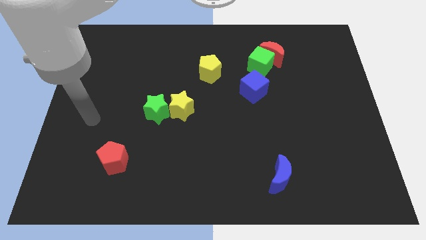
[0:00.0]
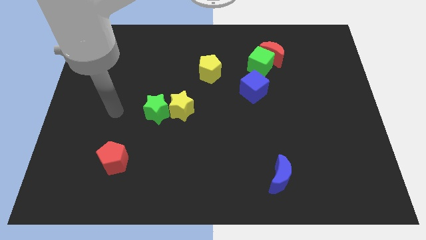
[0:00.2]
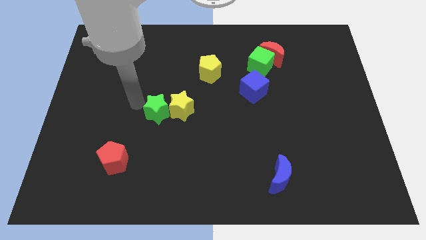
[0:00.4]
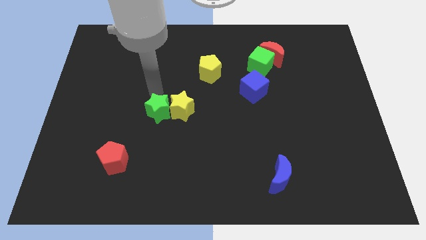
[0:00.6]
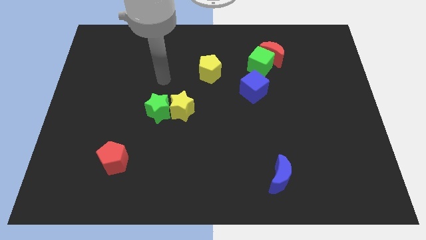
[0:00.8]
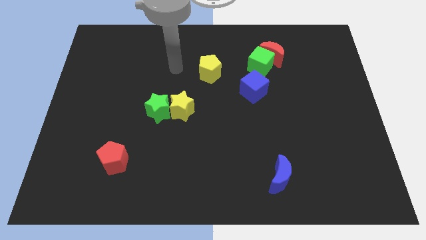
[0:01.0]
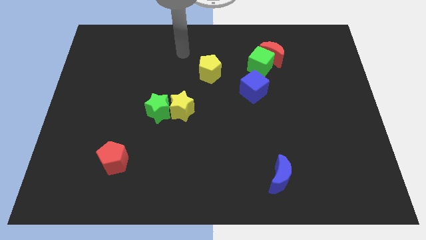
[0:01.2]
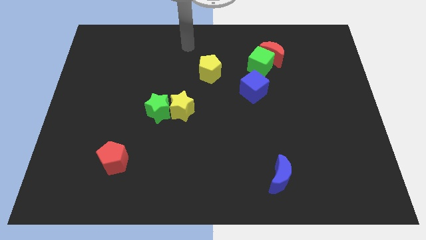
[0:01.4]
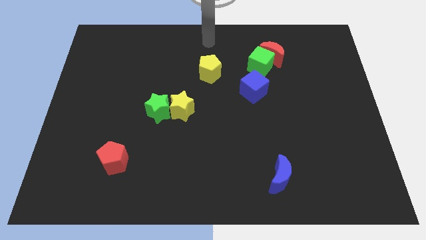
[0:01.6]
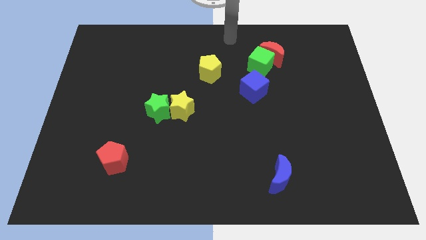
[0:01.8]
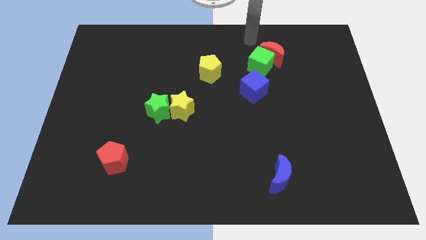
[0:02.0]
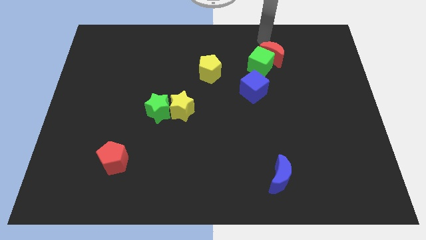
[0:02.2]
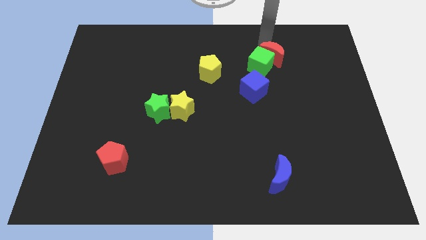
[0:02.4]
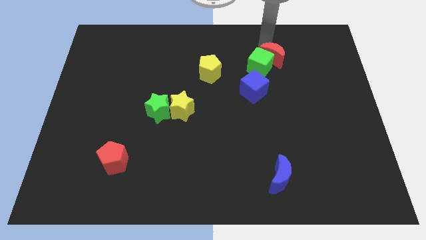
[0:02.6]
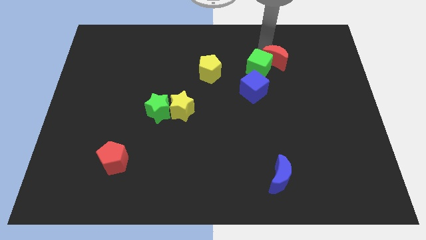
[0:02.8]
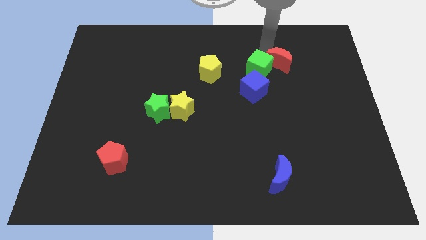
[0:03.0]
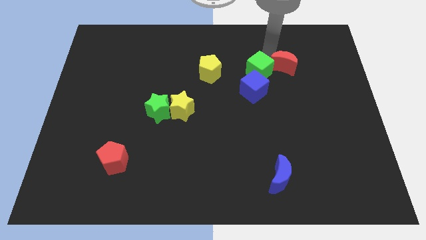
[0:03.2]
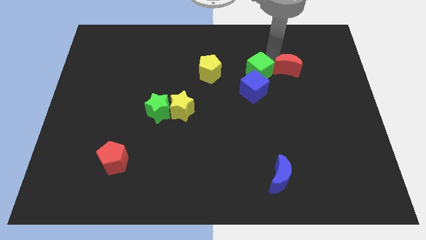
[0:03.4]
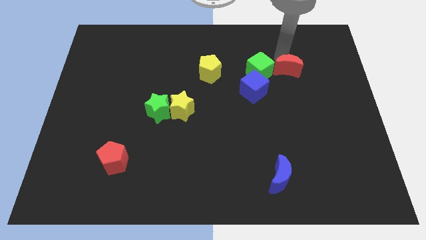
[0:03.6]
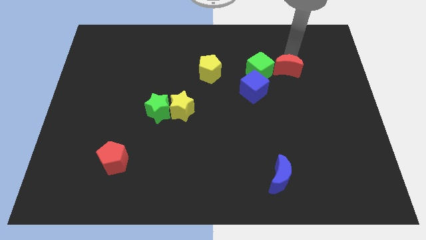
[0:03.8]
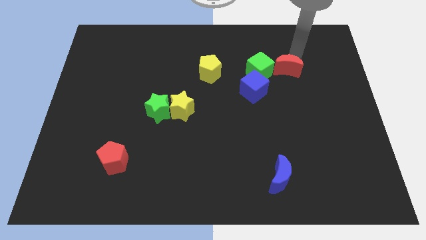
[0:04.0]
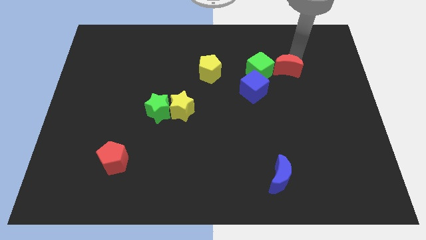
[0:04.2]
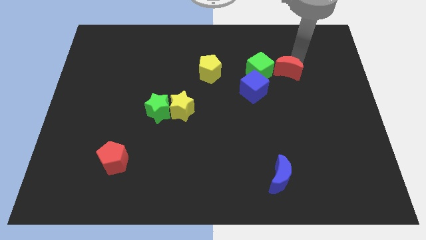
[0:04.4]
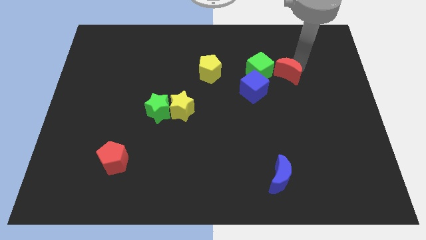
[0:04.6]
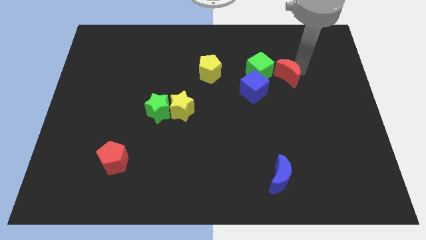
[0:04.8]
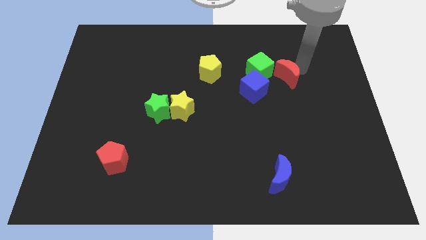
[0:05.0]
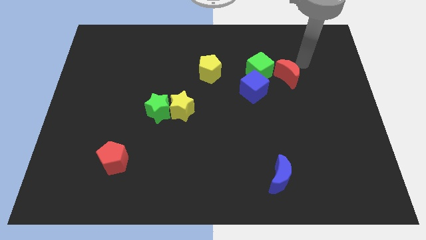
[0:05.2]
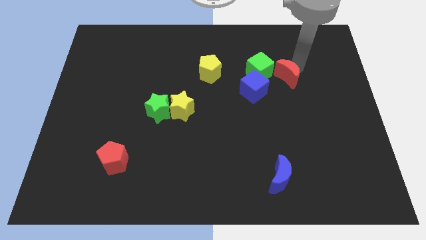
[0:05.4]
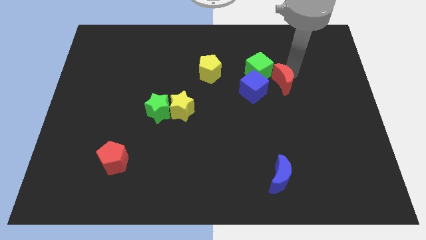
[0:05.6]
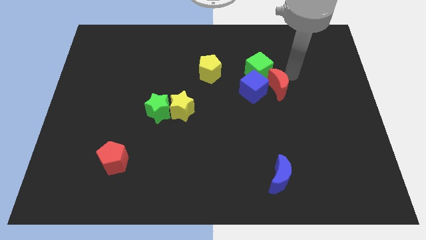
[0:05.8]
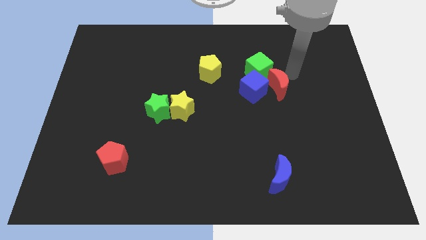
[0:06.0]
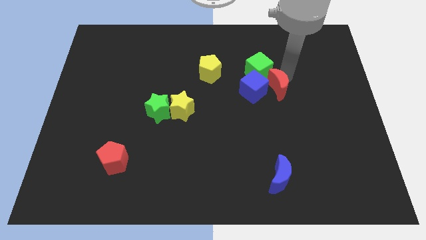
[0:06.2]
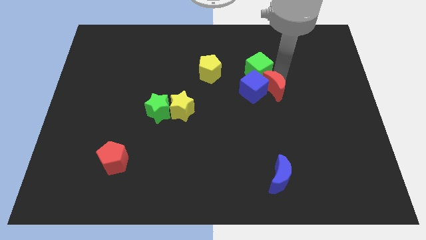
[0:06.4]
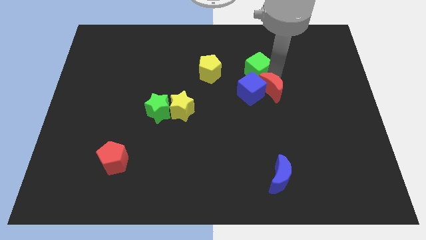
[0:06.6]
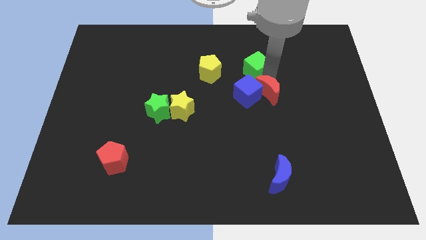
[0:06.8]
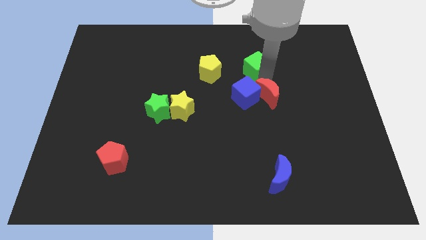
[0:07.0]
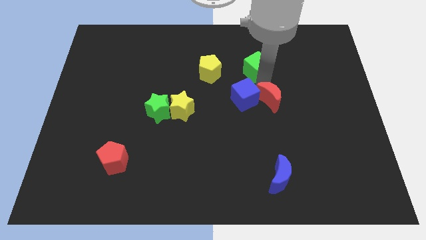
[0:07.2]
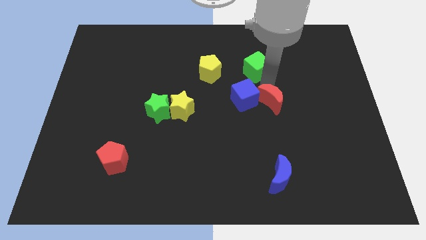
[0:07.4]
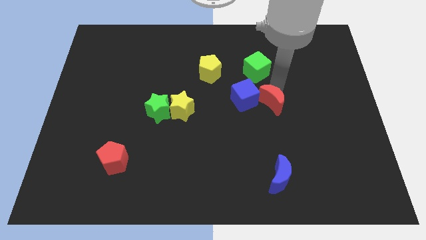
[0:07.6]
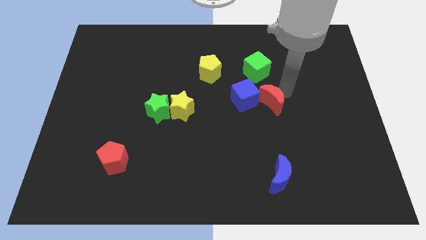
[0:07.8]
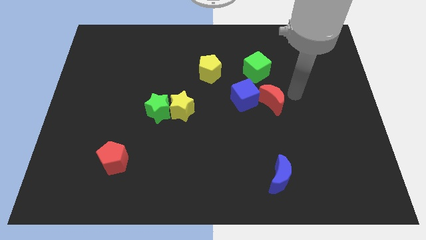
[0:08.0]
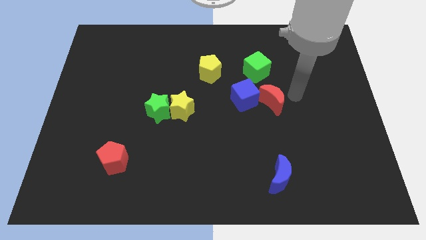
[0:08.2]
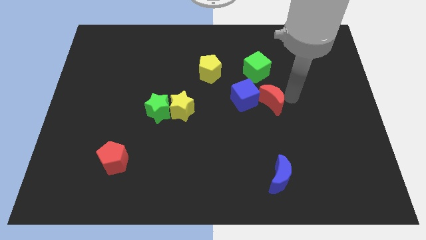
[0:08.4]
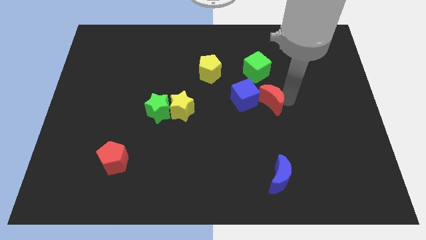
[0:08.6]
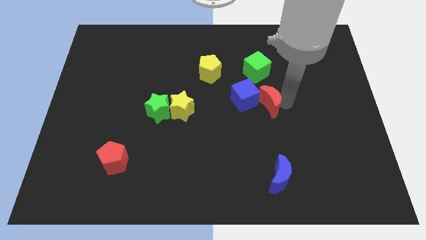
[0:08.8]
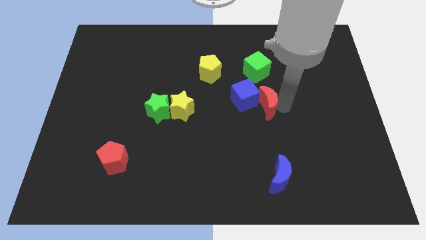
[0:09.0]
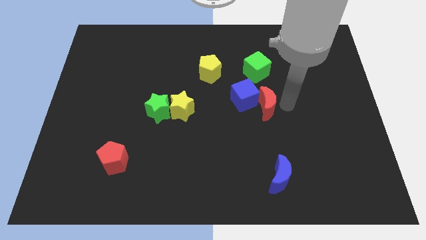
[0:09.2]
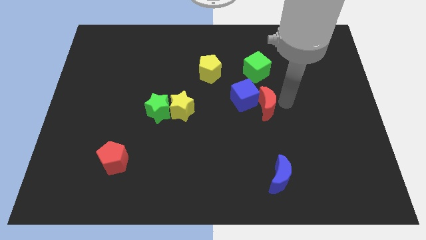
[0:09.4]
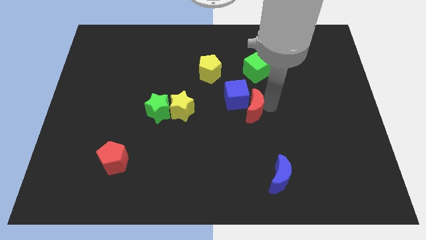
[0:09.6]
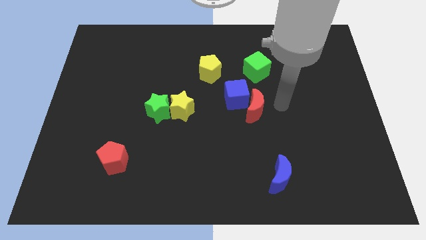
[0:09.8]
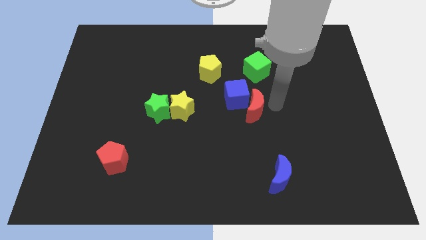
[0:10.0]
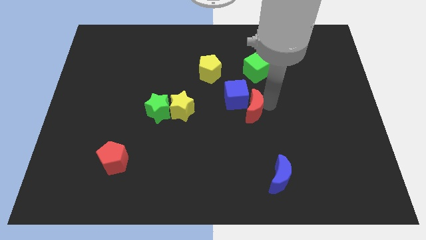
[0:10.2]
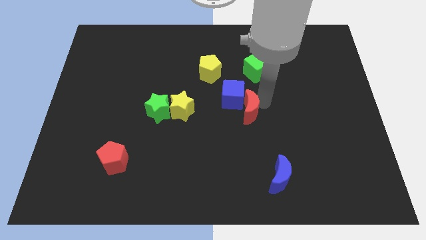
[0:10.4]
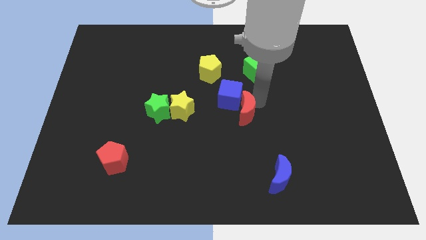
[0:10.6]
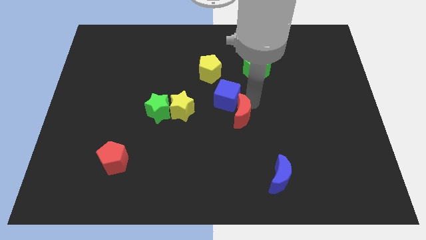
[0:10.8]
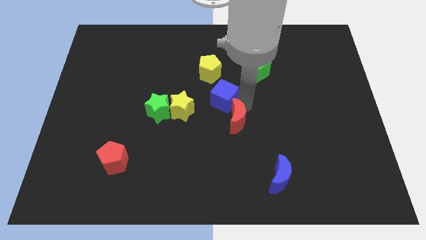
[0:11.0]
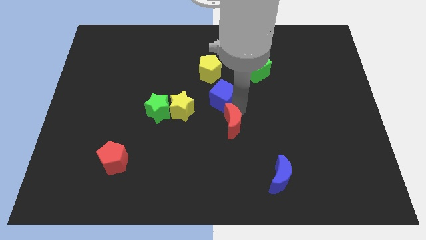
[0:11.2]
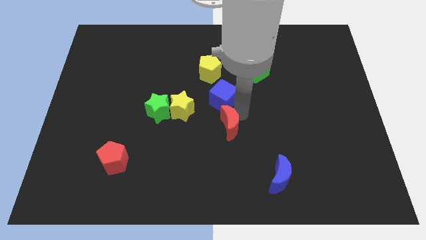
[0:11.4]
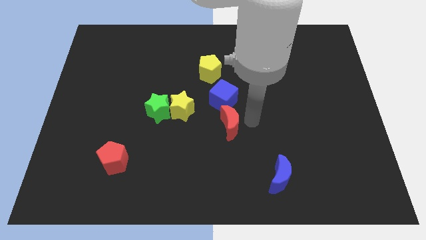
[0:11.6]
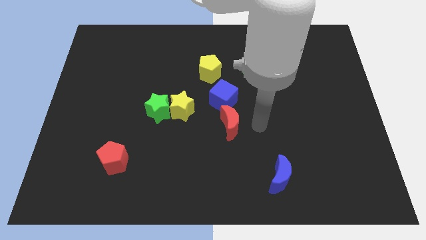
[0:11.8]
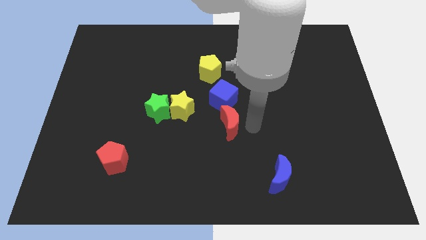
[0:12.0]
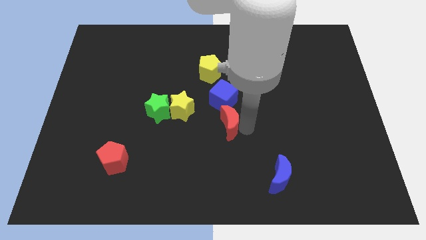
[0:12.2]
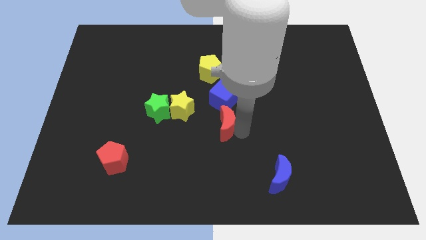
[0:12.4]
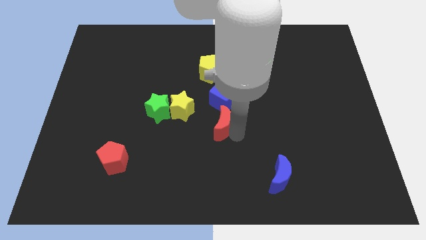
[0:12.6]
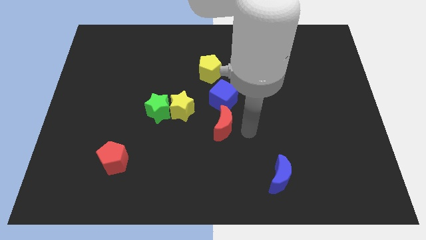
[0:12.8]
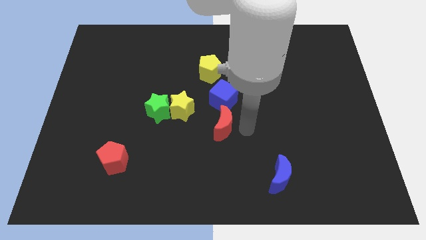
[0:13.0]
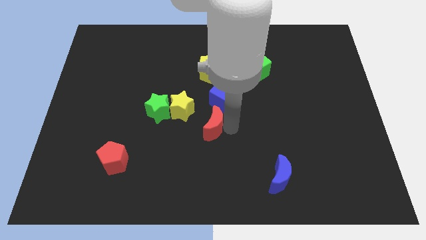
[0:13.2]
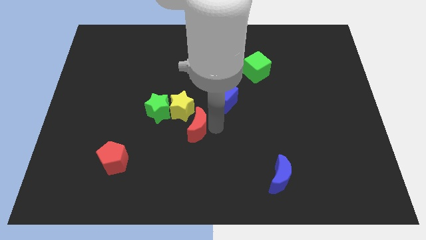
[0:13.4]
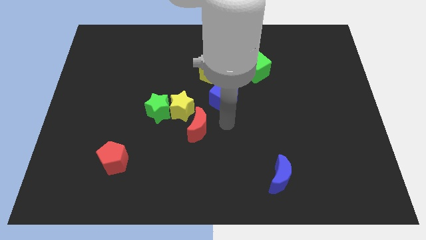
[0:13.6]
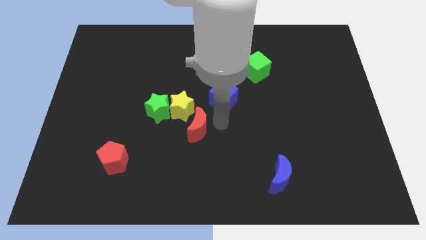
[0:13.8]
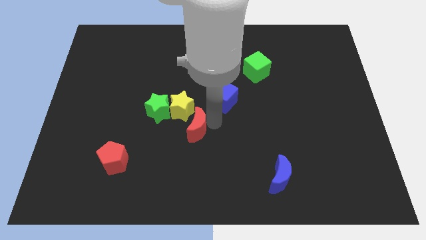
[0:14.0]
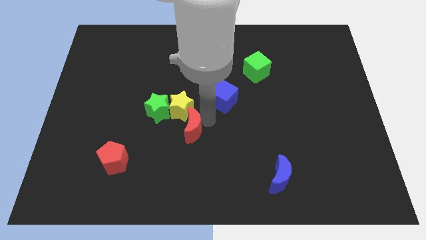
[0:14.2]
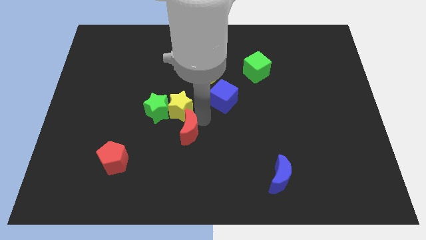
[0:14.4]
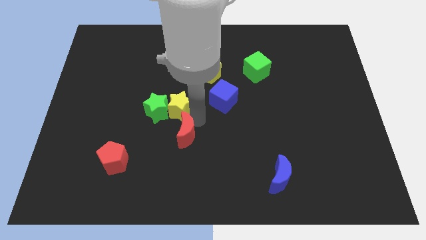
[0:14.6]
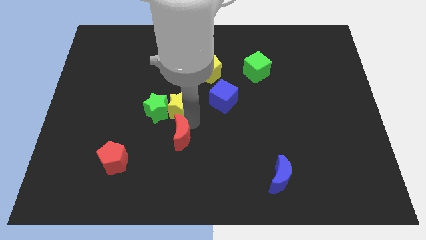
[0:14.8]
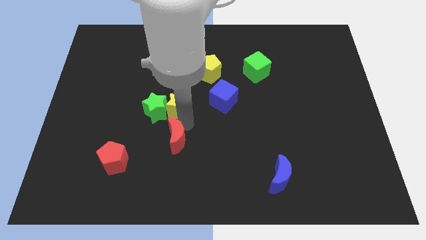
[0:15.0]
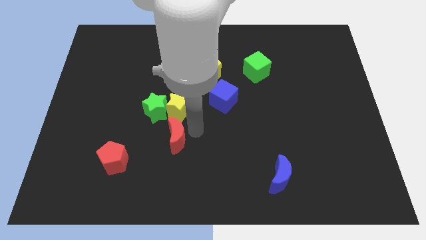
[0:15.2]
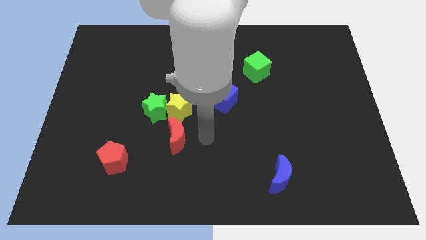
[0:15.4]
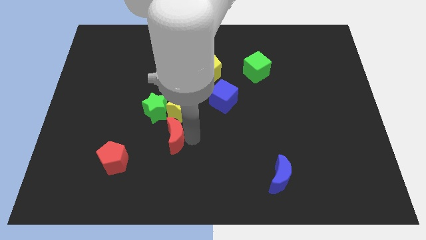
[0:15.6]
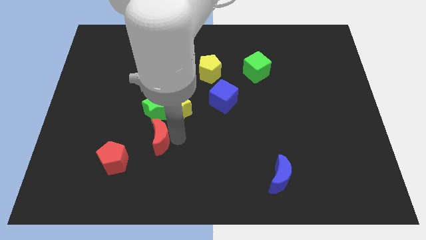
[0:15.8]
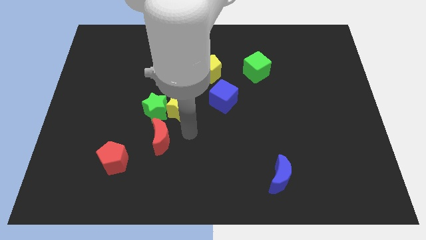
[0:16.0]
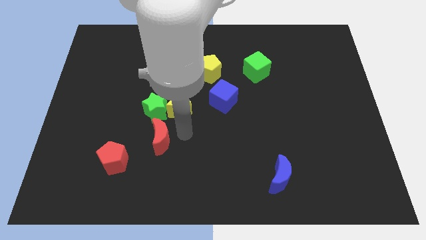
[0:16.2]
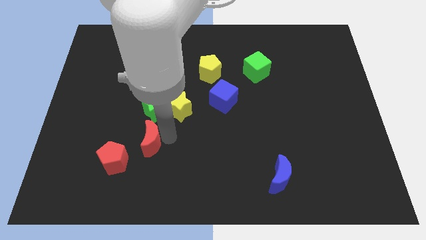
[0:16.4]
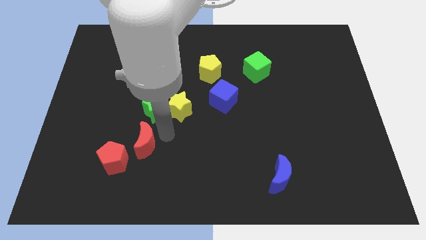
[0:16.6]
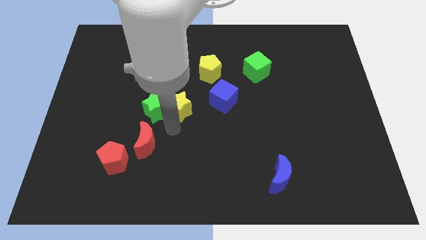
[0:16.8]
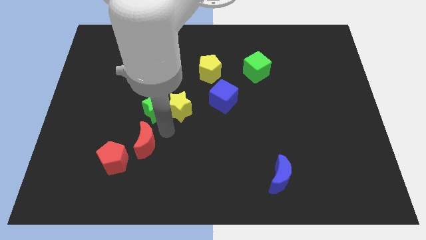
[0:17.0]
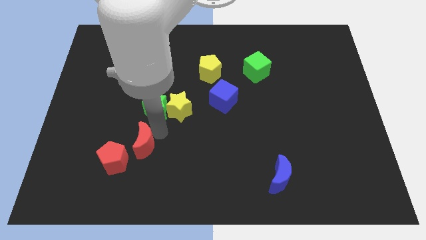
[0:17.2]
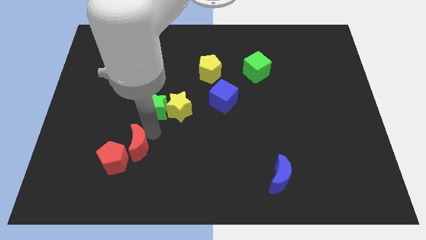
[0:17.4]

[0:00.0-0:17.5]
push the red moon close to the red pentagon
